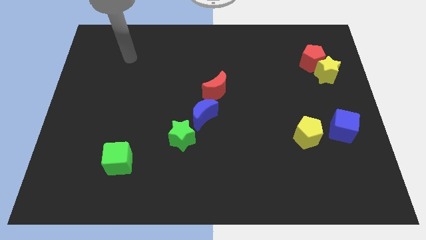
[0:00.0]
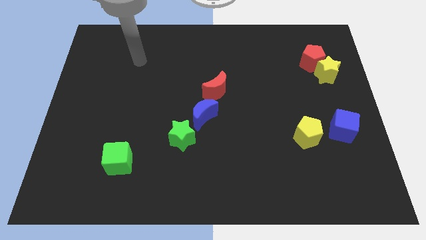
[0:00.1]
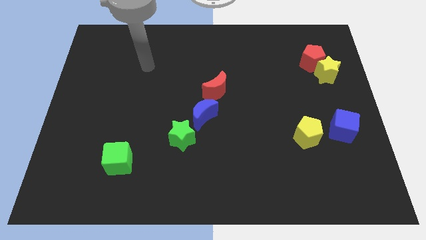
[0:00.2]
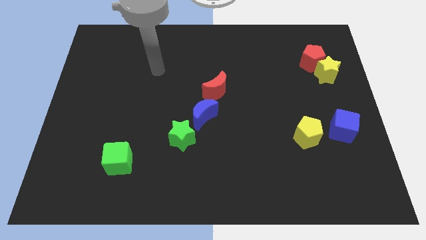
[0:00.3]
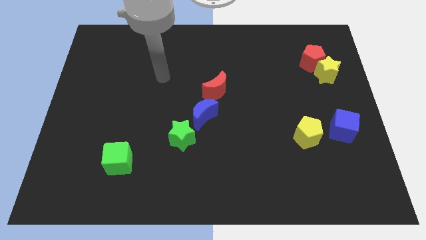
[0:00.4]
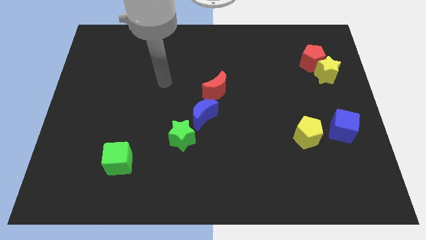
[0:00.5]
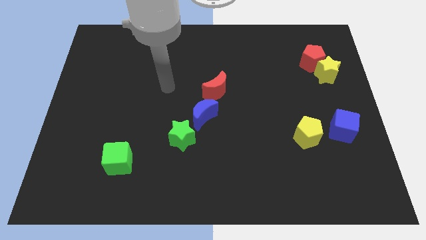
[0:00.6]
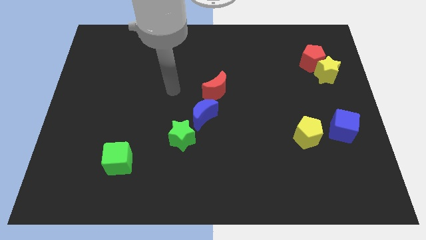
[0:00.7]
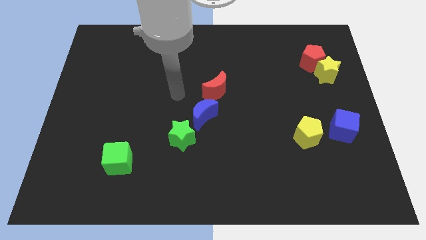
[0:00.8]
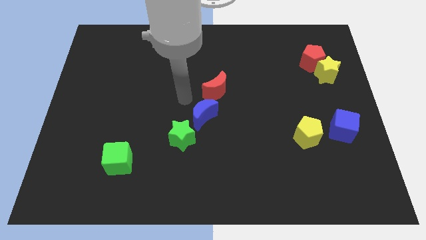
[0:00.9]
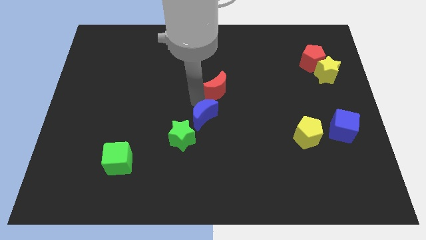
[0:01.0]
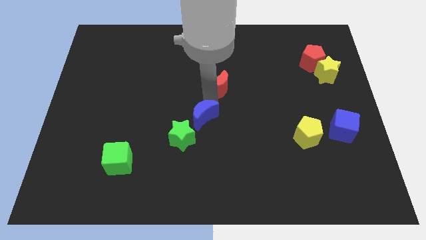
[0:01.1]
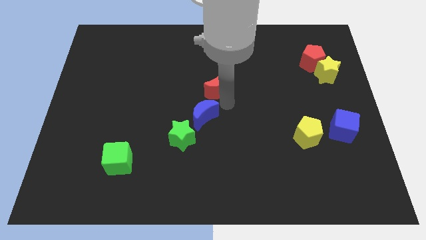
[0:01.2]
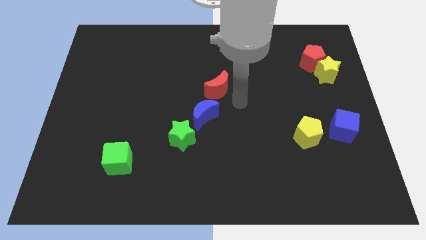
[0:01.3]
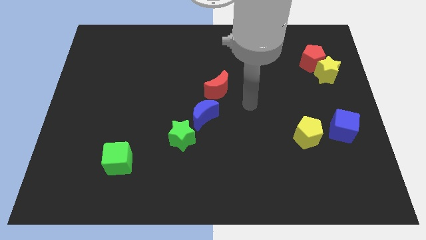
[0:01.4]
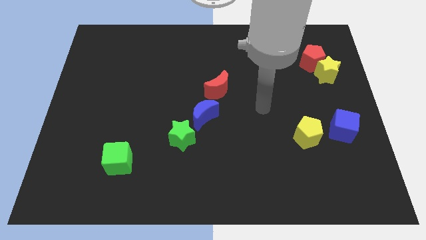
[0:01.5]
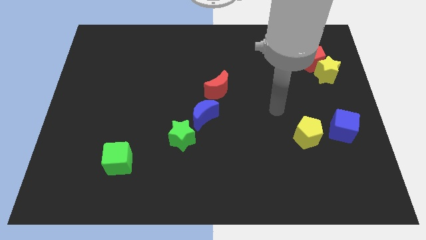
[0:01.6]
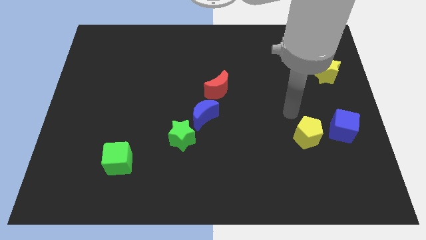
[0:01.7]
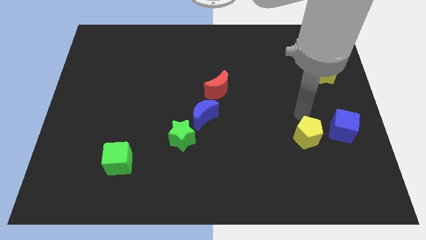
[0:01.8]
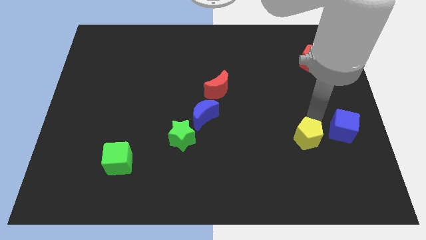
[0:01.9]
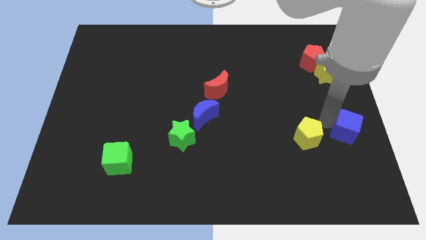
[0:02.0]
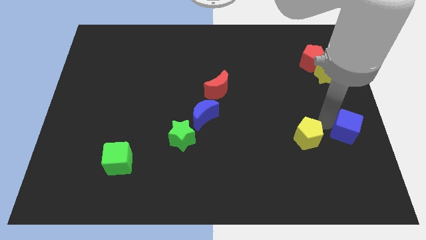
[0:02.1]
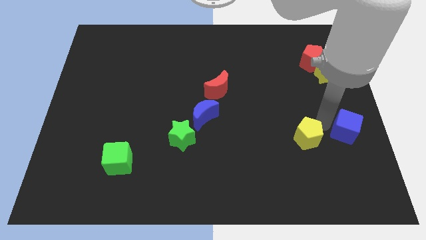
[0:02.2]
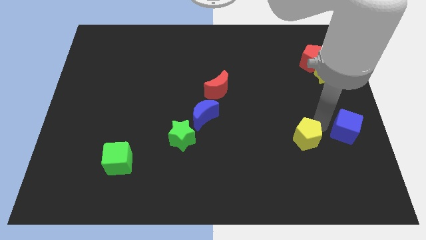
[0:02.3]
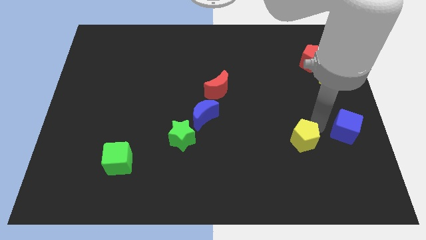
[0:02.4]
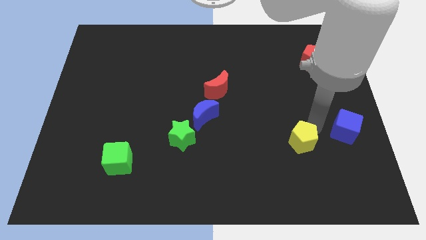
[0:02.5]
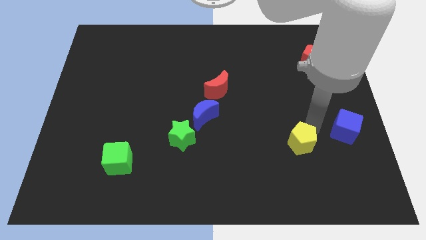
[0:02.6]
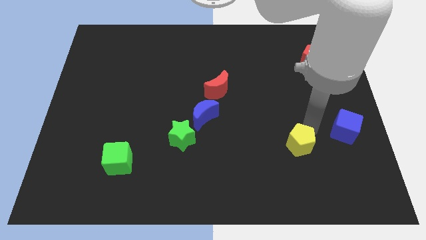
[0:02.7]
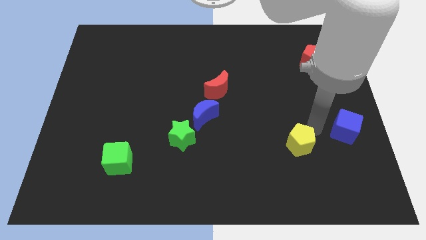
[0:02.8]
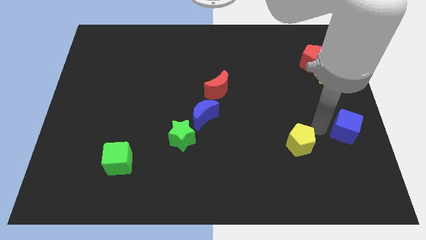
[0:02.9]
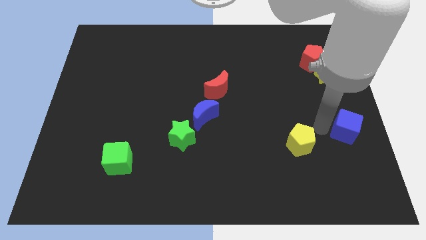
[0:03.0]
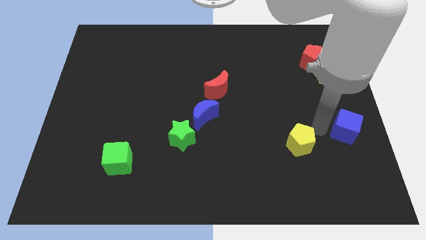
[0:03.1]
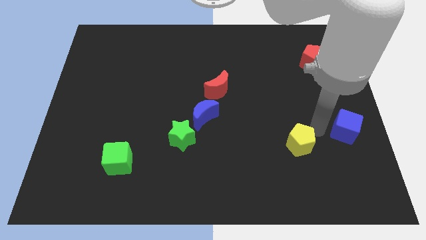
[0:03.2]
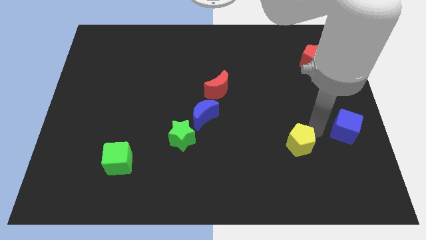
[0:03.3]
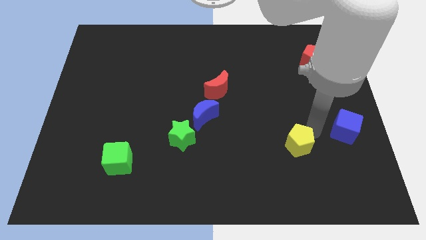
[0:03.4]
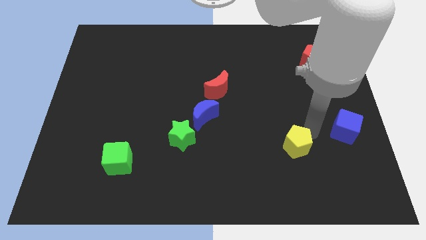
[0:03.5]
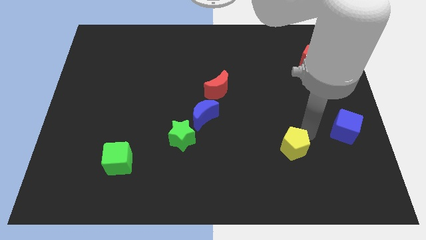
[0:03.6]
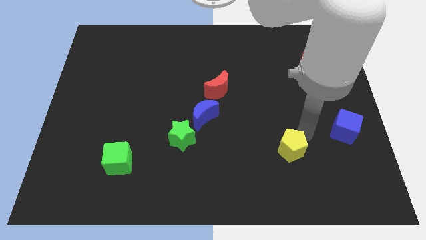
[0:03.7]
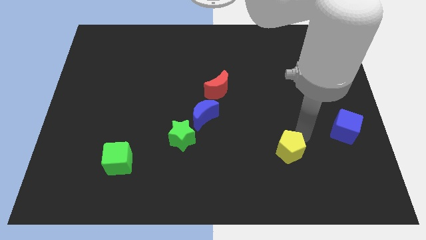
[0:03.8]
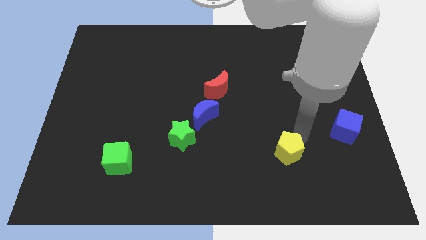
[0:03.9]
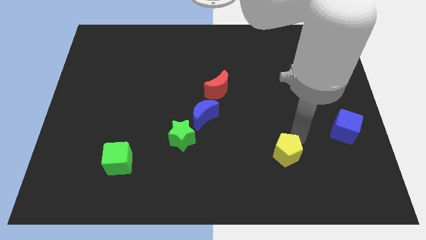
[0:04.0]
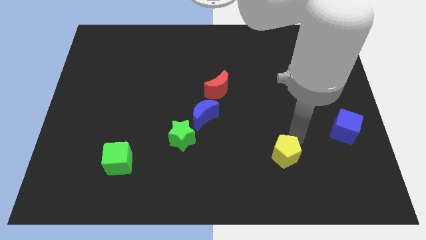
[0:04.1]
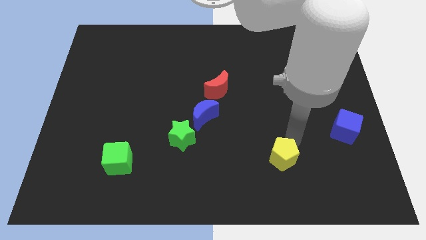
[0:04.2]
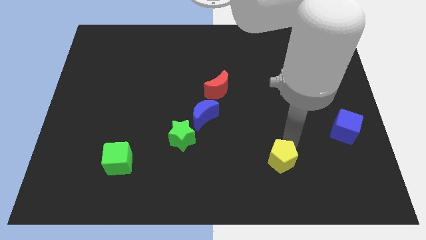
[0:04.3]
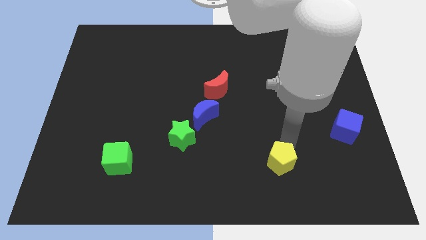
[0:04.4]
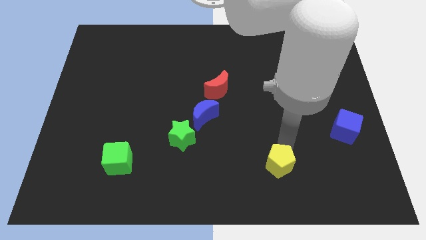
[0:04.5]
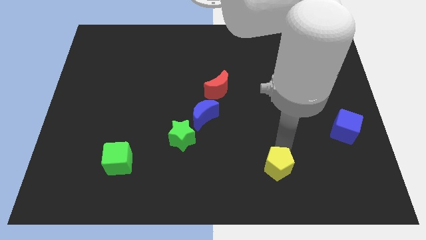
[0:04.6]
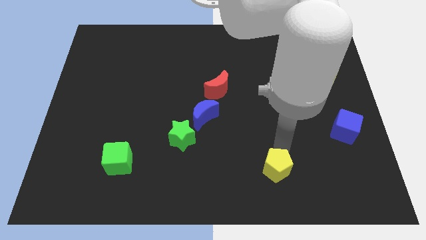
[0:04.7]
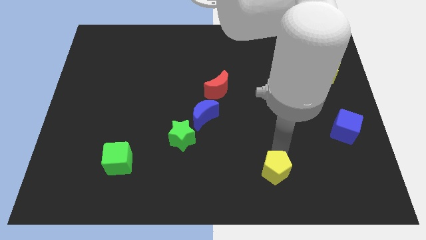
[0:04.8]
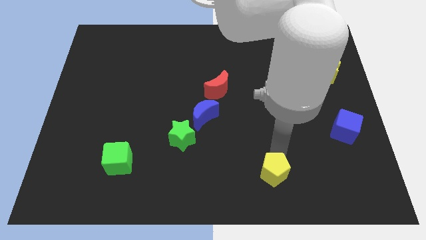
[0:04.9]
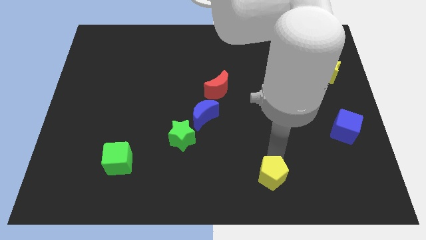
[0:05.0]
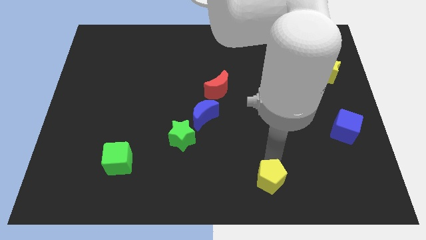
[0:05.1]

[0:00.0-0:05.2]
move the yellow pentagon to the bottom side

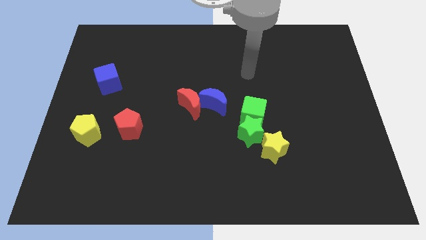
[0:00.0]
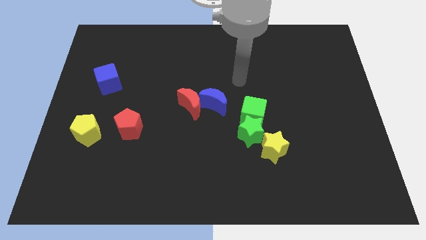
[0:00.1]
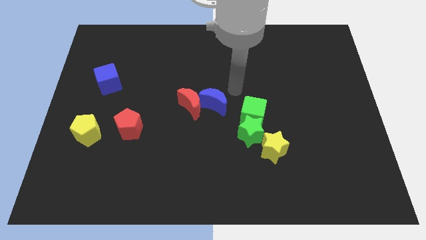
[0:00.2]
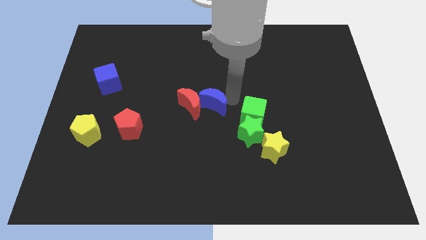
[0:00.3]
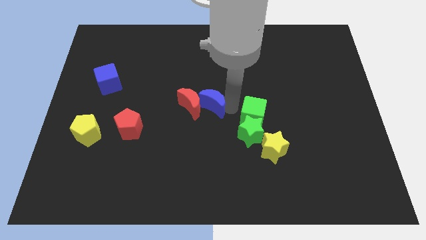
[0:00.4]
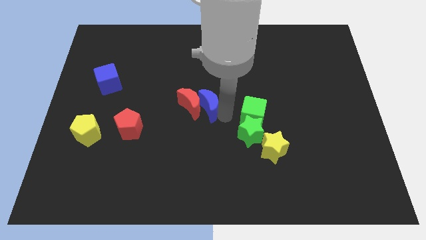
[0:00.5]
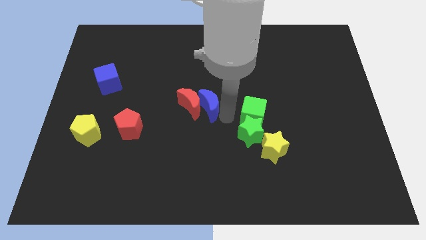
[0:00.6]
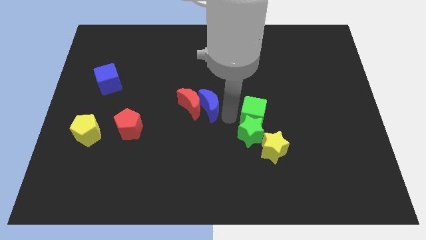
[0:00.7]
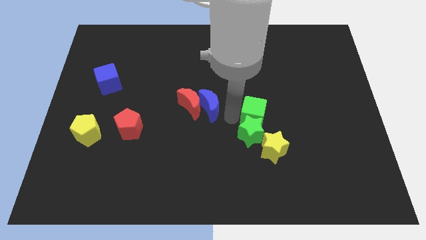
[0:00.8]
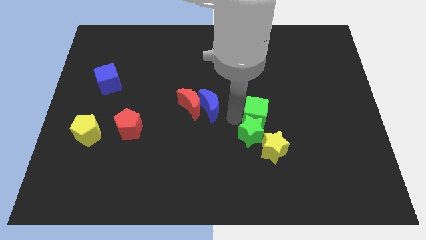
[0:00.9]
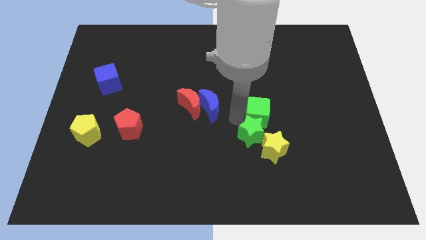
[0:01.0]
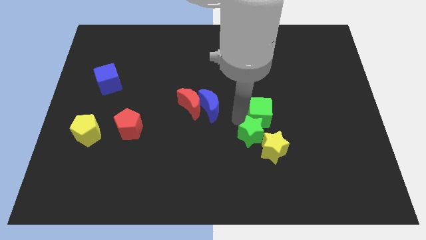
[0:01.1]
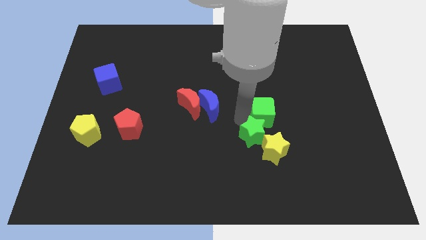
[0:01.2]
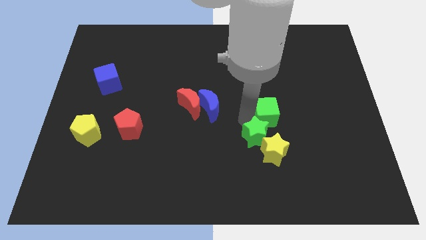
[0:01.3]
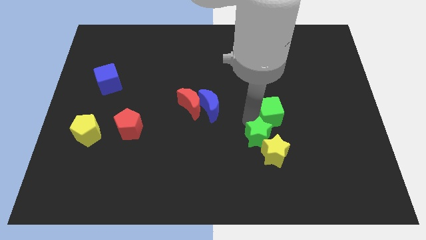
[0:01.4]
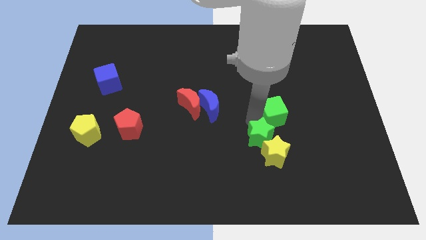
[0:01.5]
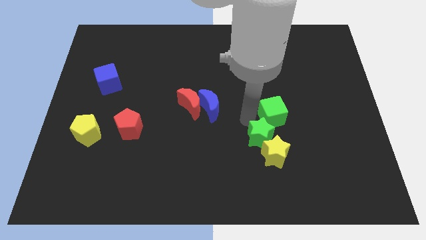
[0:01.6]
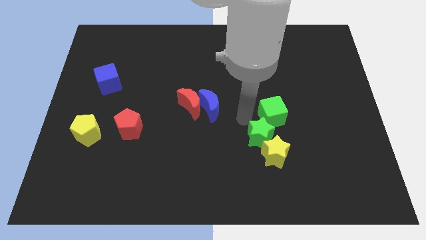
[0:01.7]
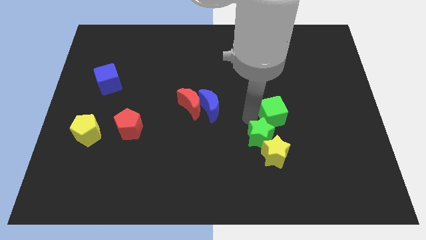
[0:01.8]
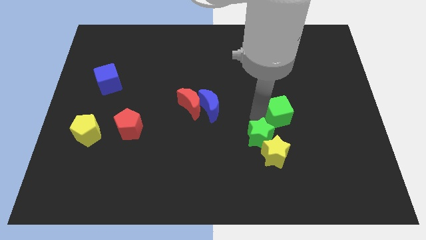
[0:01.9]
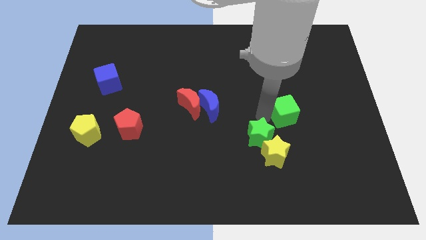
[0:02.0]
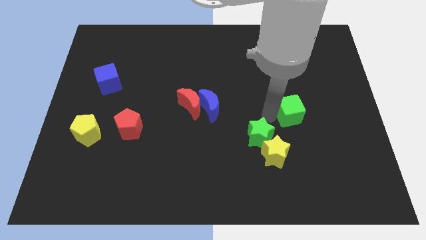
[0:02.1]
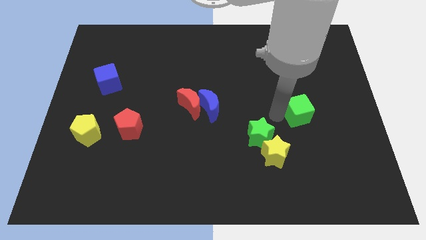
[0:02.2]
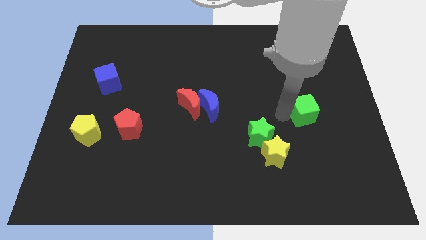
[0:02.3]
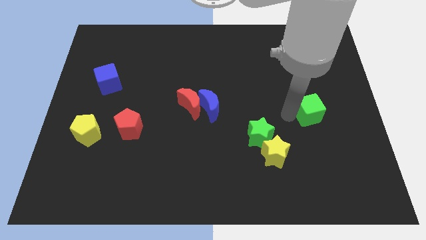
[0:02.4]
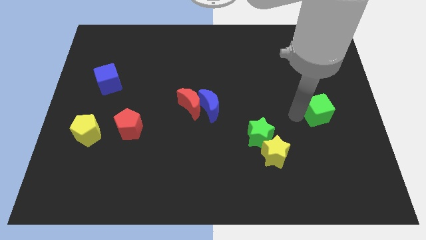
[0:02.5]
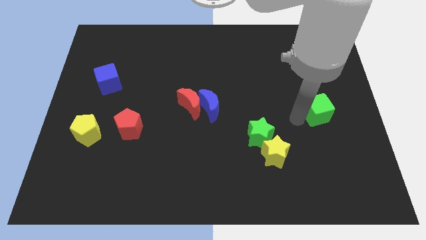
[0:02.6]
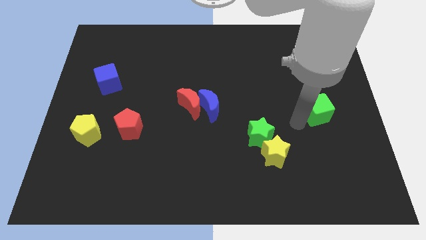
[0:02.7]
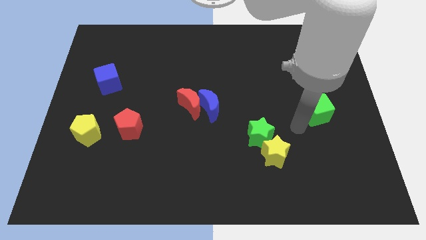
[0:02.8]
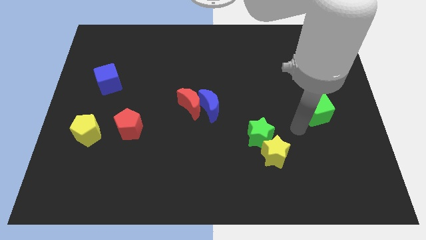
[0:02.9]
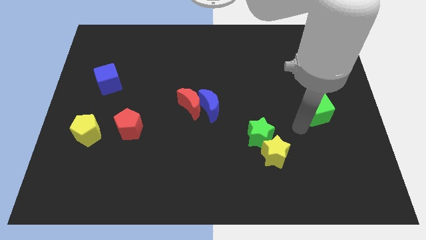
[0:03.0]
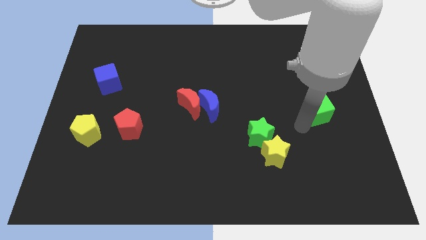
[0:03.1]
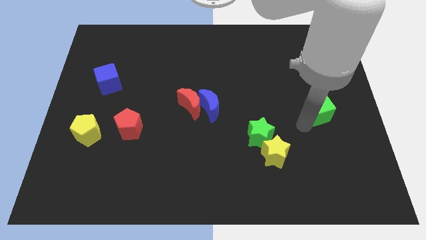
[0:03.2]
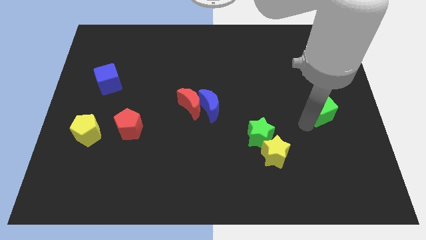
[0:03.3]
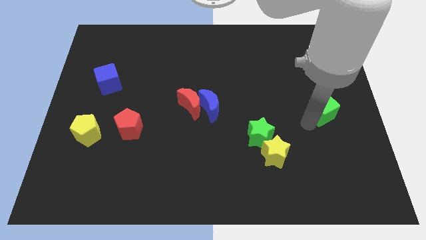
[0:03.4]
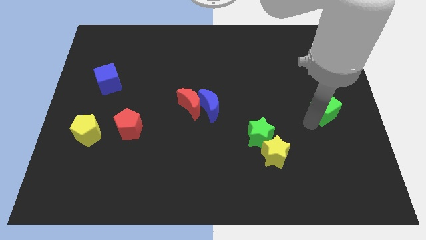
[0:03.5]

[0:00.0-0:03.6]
slide the green cube to the center right
